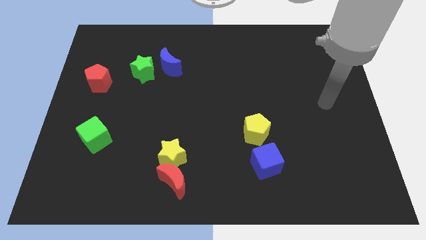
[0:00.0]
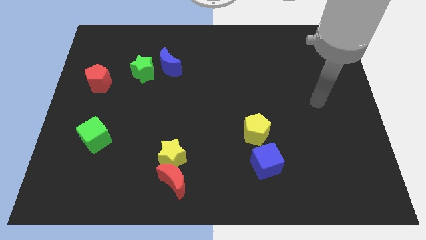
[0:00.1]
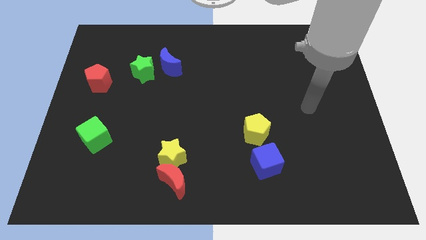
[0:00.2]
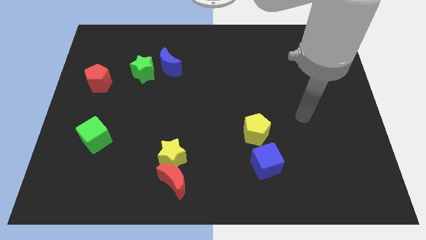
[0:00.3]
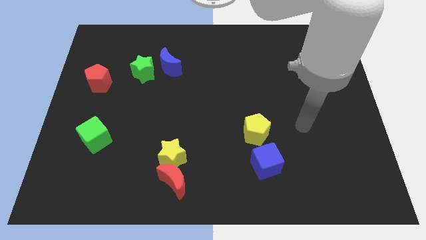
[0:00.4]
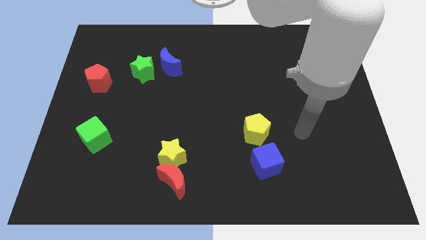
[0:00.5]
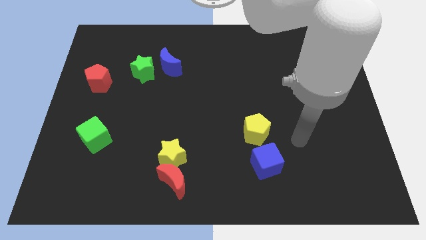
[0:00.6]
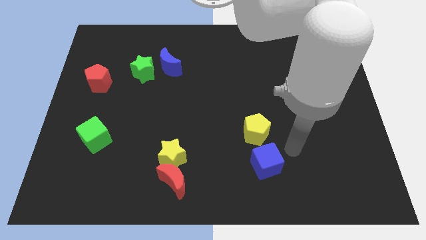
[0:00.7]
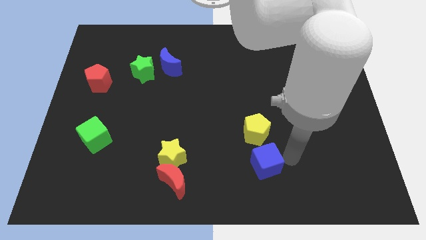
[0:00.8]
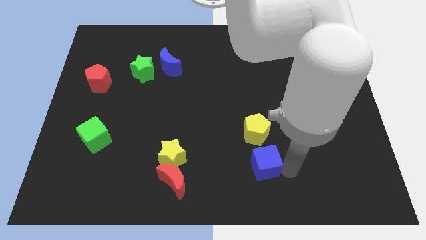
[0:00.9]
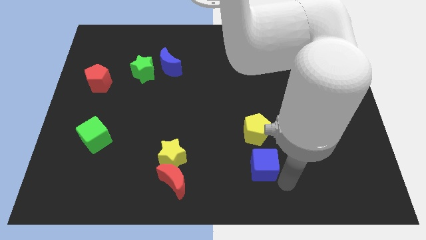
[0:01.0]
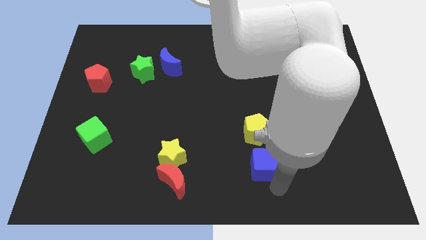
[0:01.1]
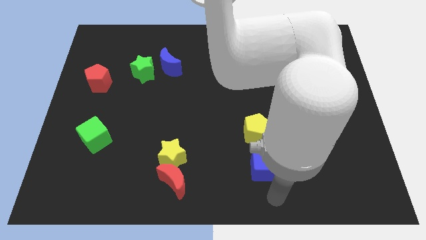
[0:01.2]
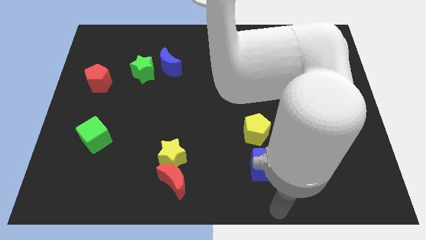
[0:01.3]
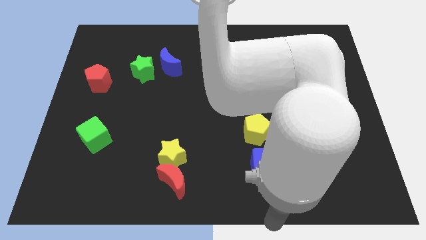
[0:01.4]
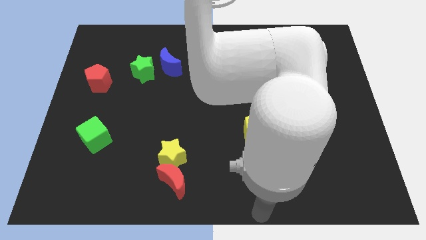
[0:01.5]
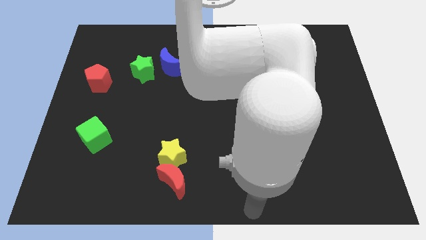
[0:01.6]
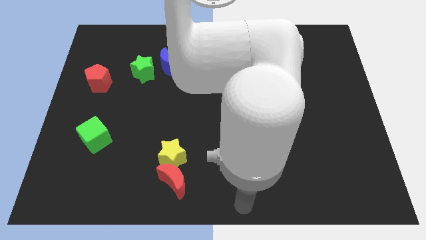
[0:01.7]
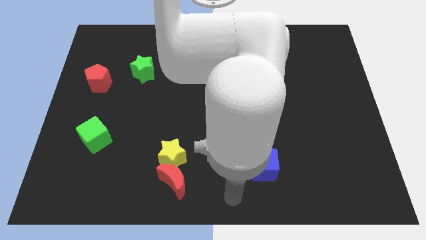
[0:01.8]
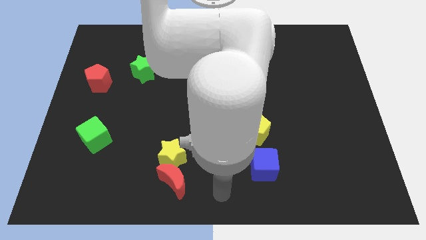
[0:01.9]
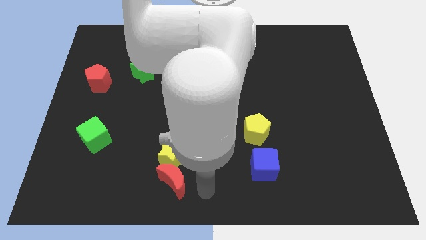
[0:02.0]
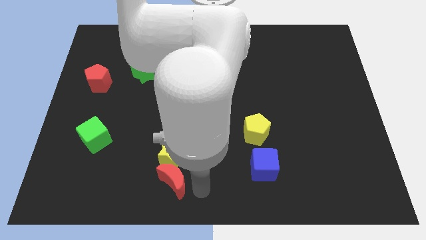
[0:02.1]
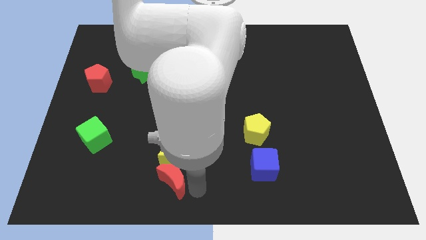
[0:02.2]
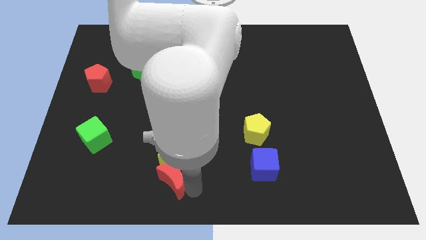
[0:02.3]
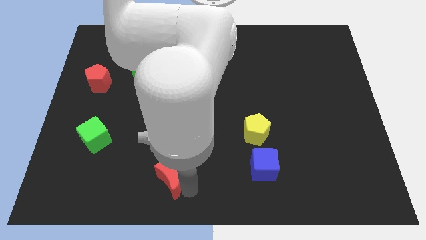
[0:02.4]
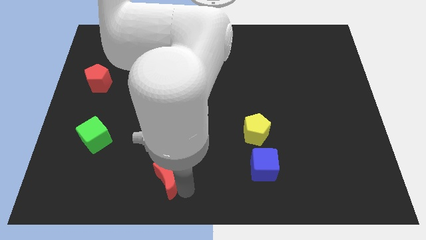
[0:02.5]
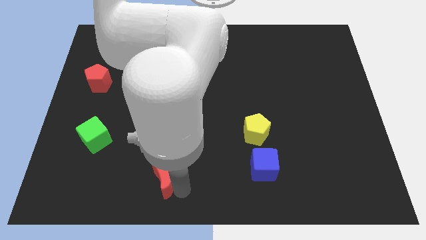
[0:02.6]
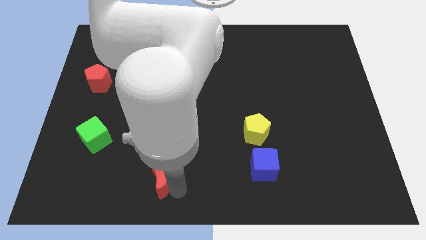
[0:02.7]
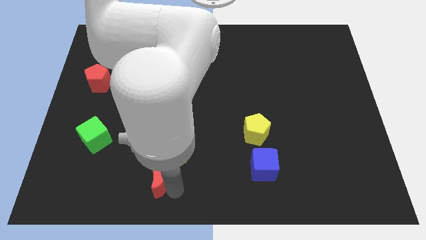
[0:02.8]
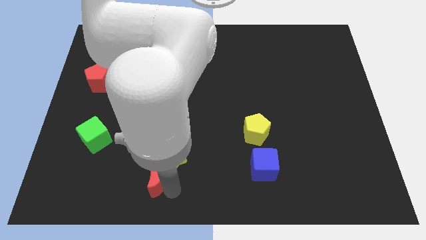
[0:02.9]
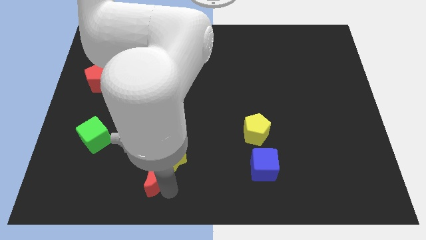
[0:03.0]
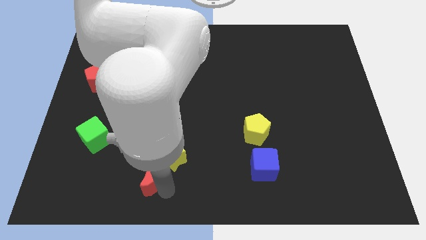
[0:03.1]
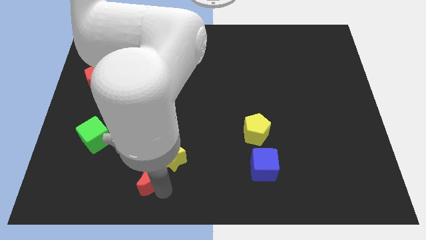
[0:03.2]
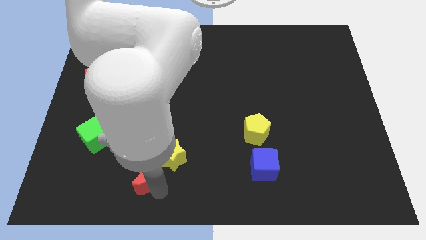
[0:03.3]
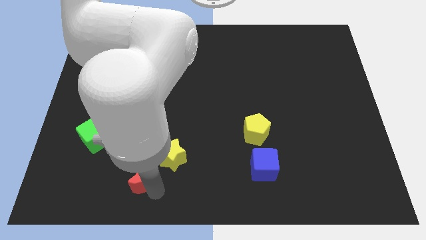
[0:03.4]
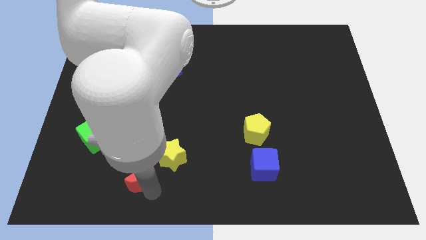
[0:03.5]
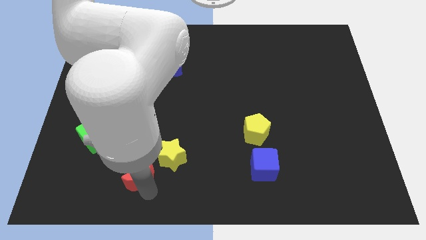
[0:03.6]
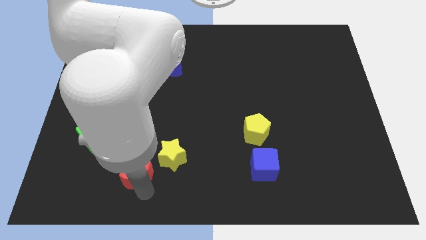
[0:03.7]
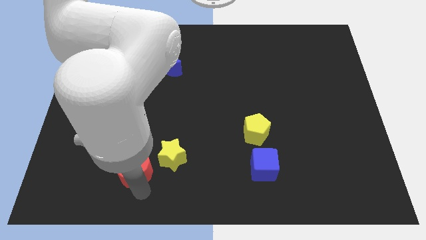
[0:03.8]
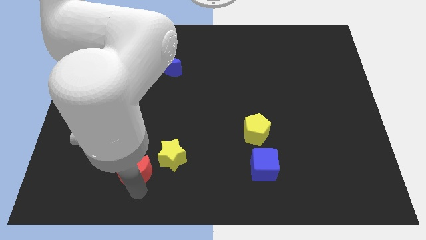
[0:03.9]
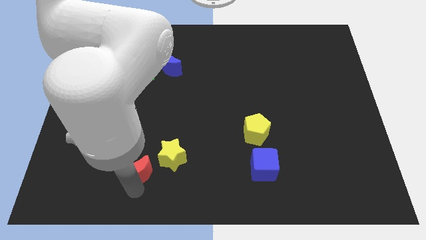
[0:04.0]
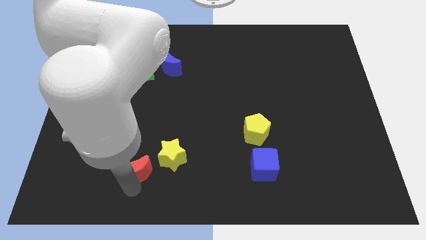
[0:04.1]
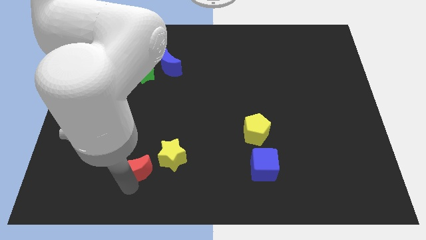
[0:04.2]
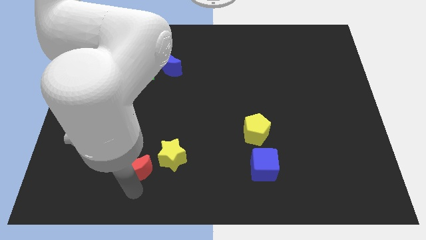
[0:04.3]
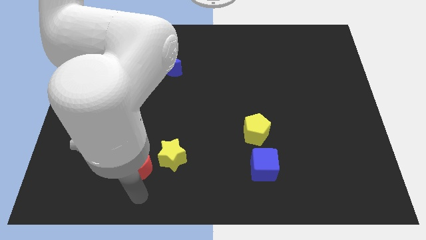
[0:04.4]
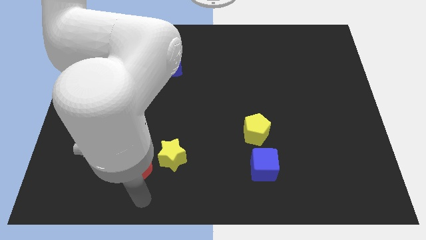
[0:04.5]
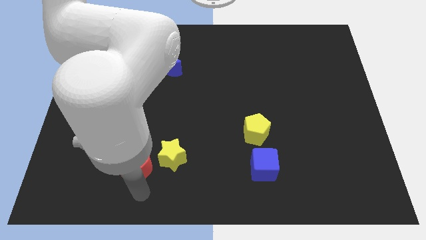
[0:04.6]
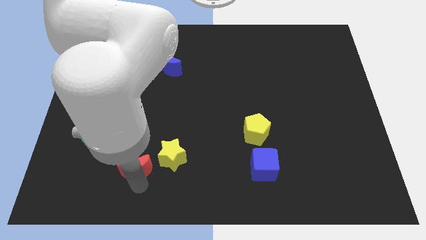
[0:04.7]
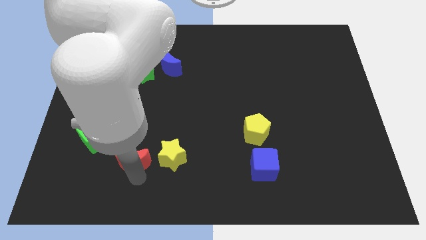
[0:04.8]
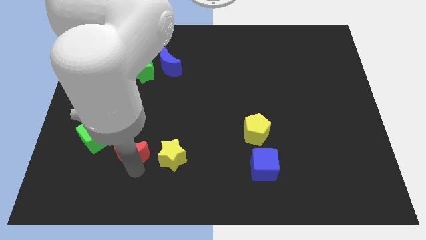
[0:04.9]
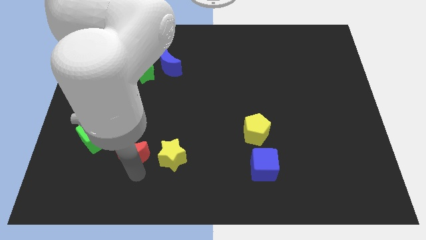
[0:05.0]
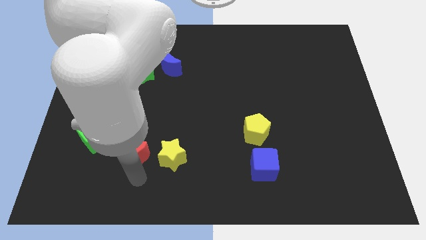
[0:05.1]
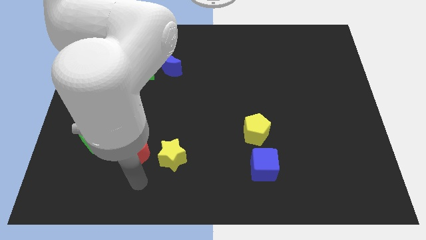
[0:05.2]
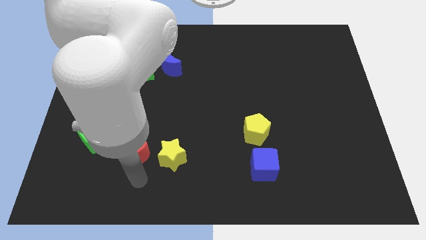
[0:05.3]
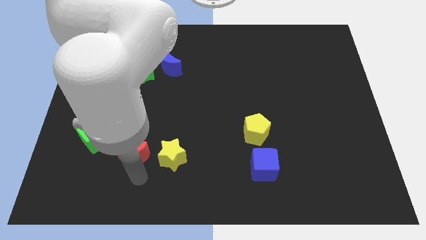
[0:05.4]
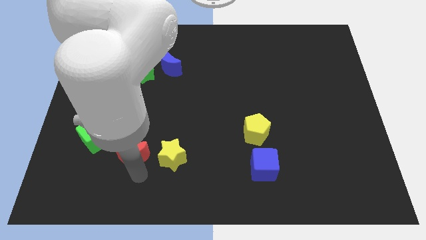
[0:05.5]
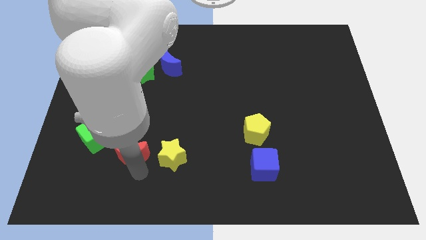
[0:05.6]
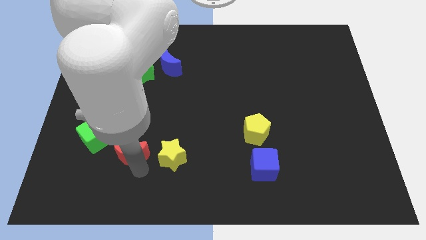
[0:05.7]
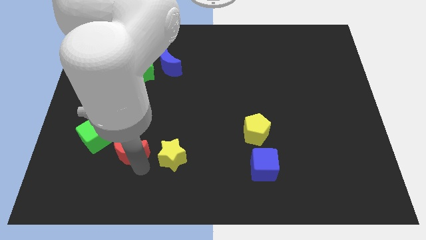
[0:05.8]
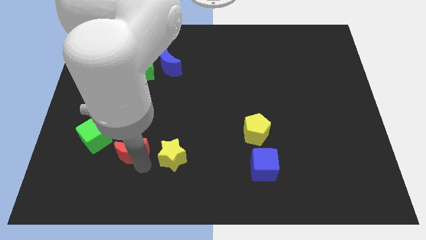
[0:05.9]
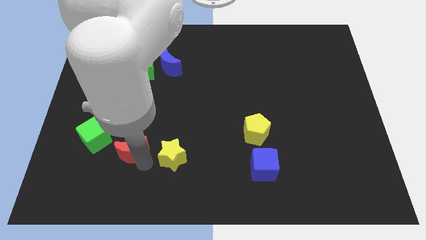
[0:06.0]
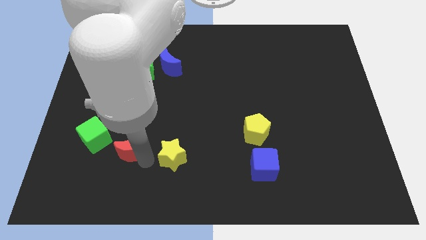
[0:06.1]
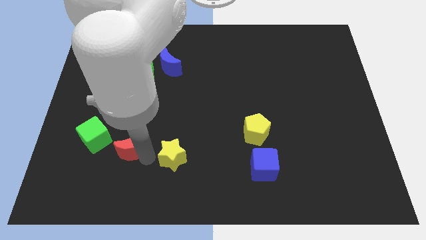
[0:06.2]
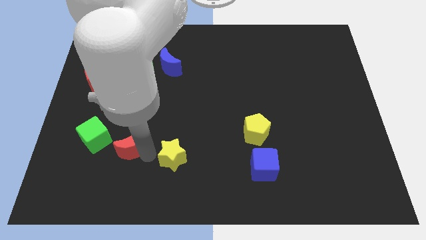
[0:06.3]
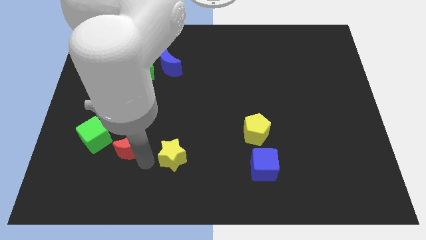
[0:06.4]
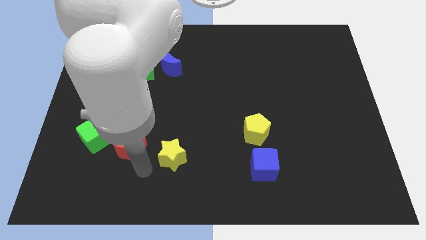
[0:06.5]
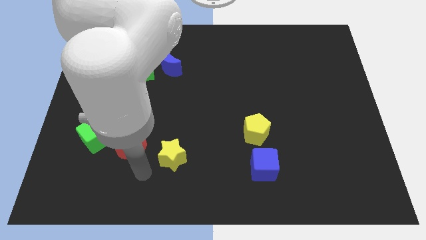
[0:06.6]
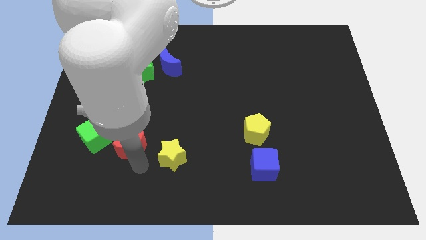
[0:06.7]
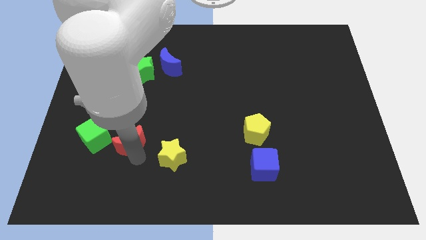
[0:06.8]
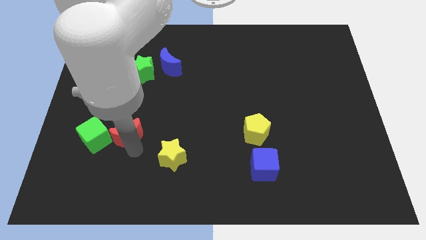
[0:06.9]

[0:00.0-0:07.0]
slide the red moon to the top right side of the green cube

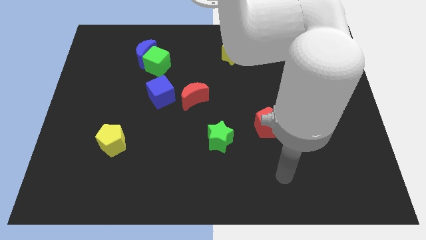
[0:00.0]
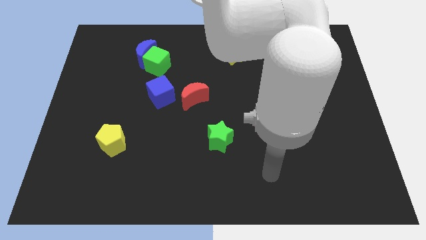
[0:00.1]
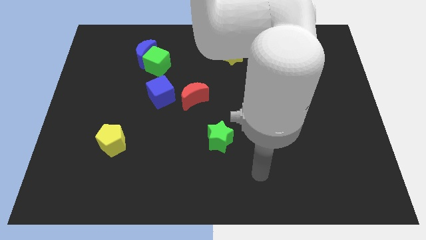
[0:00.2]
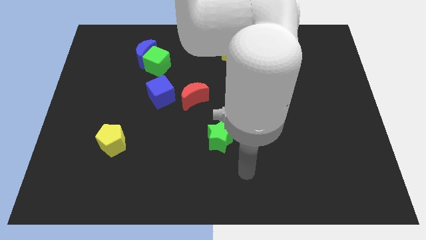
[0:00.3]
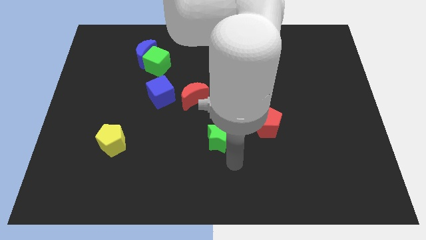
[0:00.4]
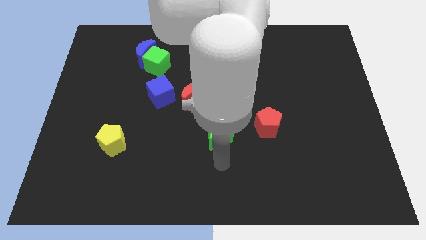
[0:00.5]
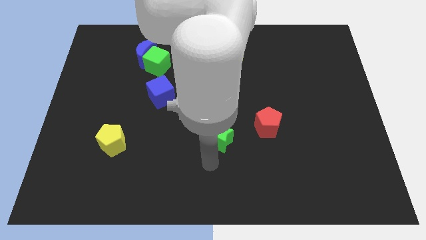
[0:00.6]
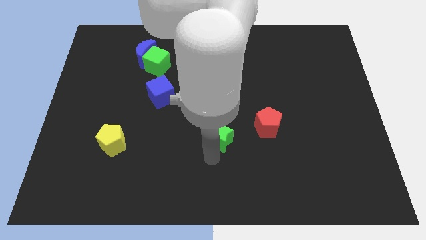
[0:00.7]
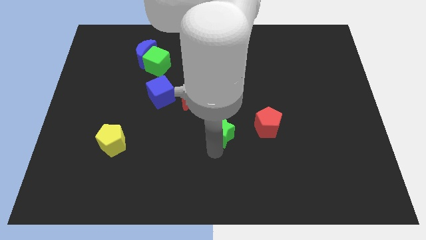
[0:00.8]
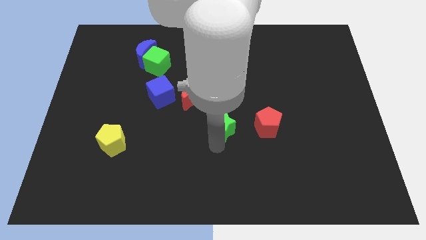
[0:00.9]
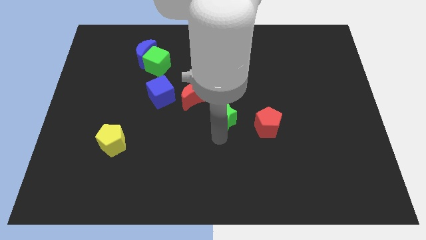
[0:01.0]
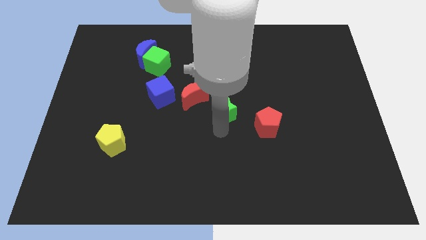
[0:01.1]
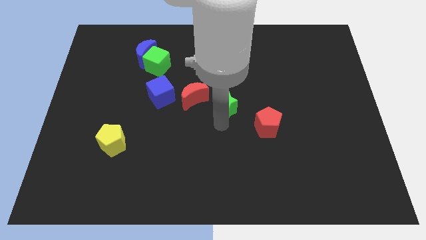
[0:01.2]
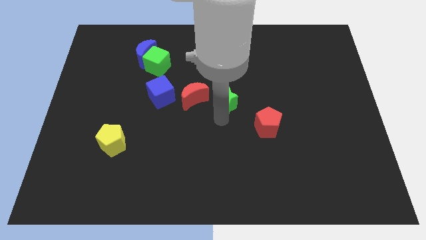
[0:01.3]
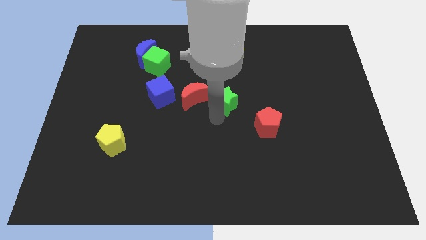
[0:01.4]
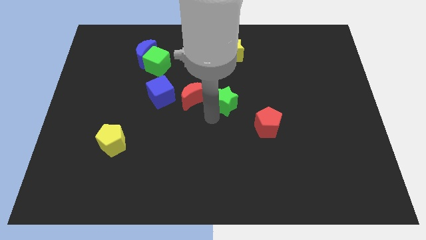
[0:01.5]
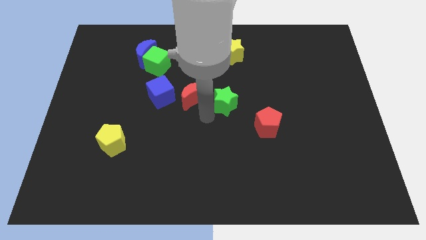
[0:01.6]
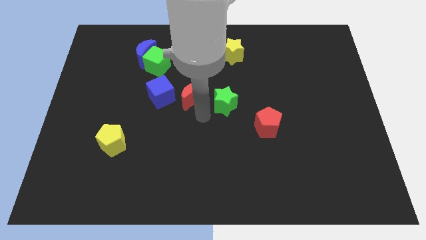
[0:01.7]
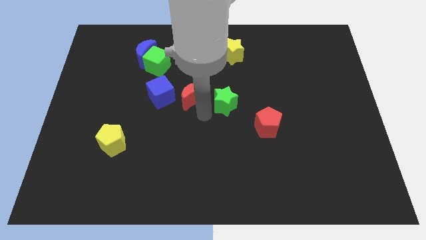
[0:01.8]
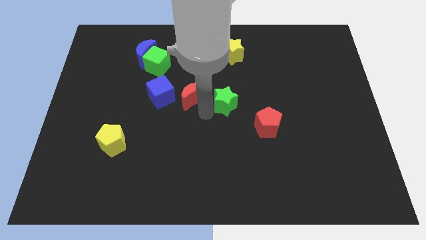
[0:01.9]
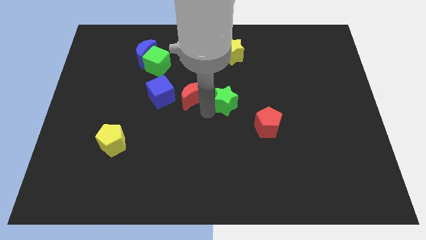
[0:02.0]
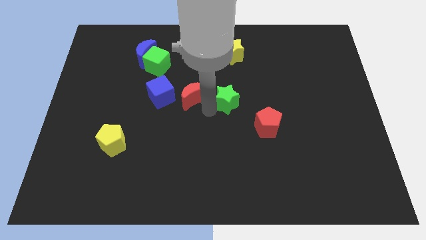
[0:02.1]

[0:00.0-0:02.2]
slide the green star to the bottom side of the yellow star
